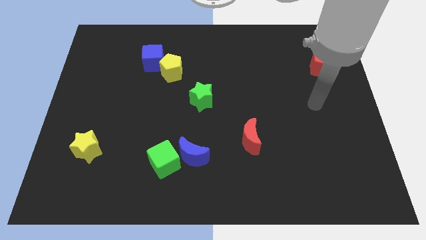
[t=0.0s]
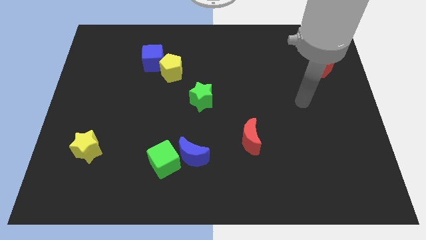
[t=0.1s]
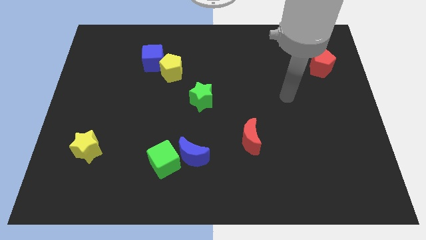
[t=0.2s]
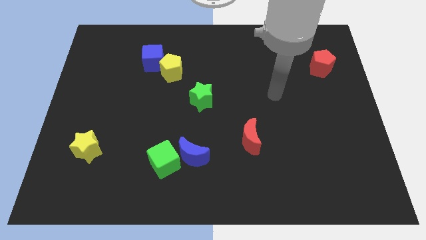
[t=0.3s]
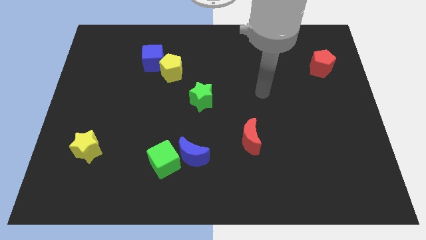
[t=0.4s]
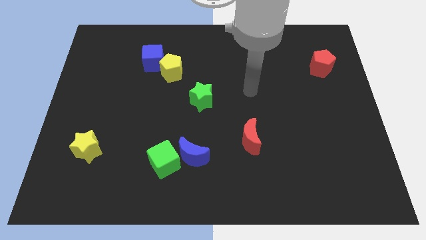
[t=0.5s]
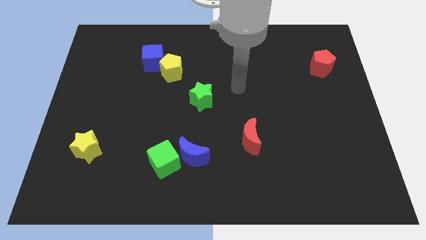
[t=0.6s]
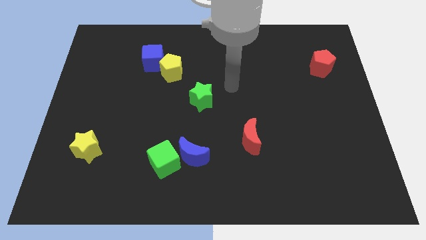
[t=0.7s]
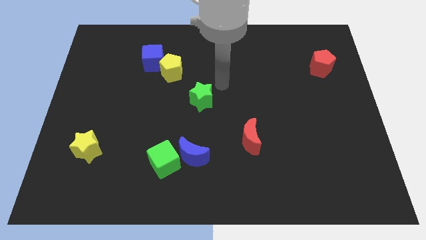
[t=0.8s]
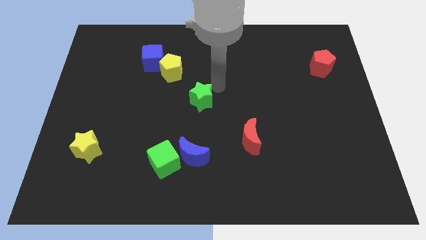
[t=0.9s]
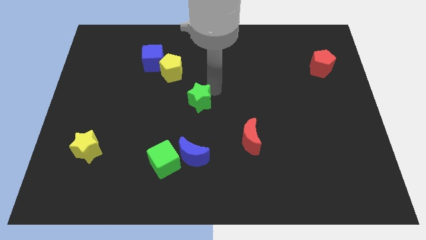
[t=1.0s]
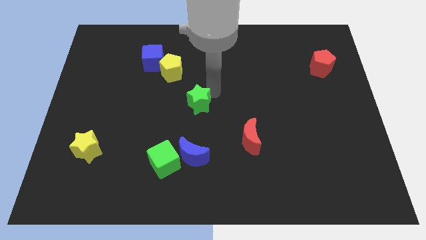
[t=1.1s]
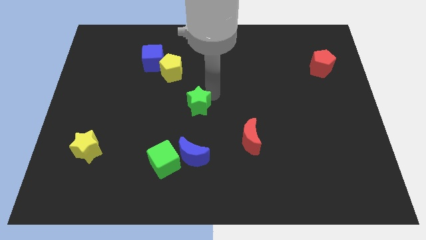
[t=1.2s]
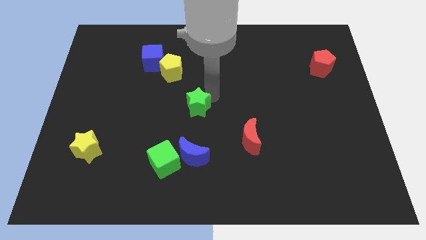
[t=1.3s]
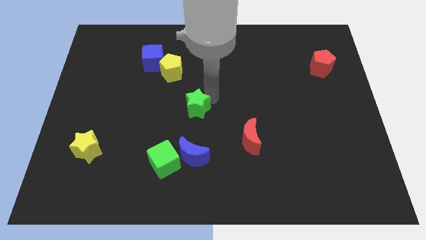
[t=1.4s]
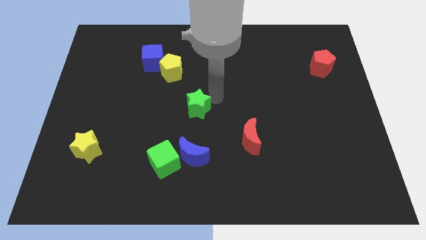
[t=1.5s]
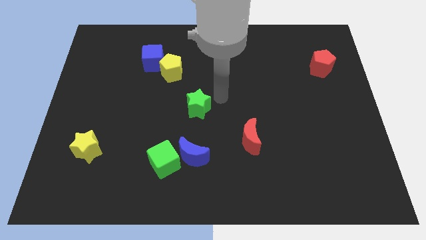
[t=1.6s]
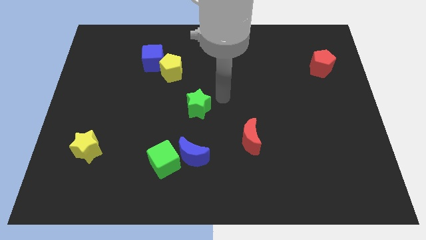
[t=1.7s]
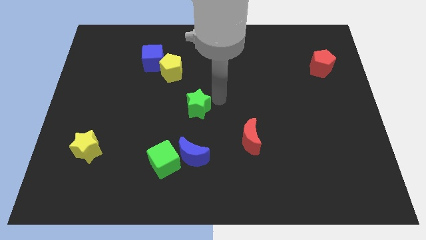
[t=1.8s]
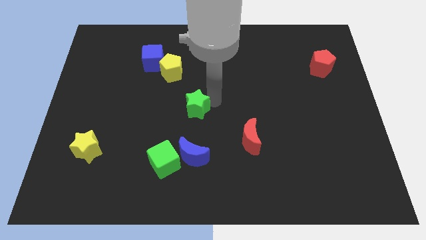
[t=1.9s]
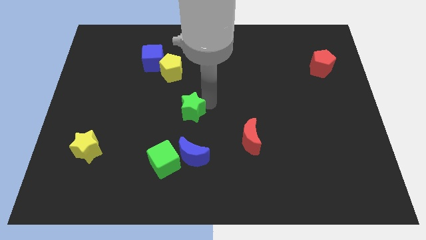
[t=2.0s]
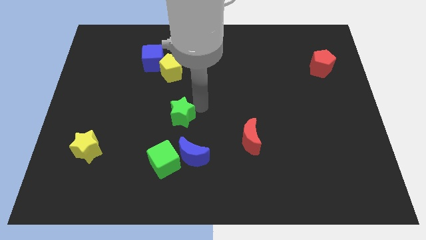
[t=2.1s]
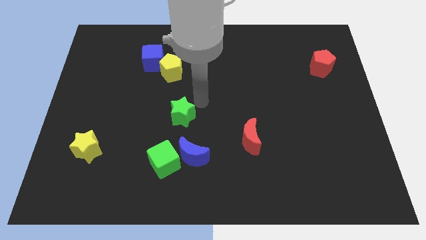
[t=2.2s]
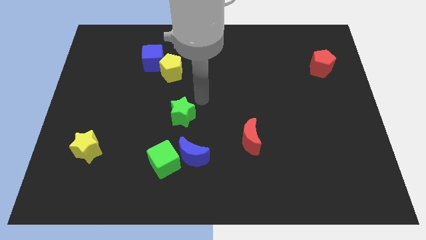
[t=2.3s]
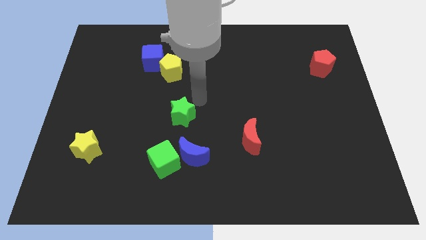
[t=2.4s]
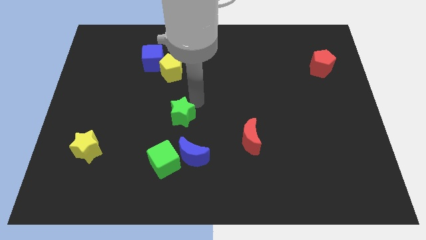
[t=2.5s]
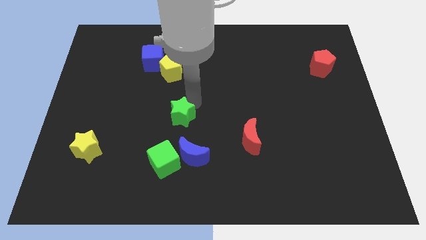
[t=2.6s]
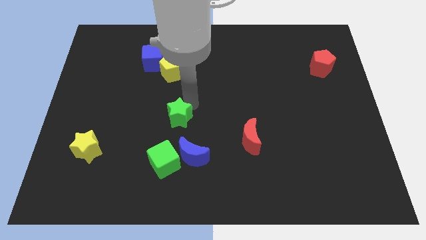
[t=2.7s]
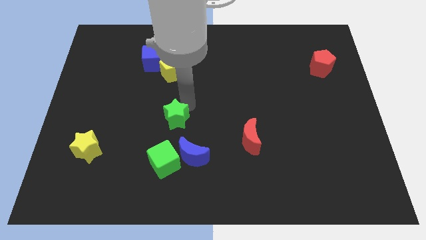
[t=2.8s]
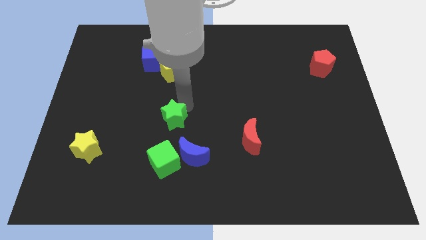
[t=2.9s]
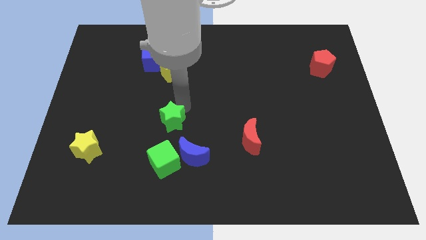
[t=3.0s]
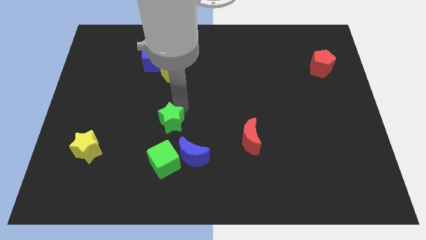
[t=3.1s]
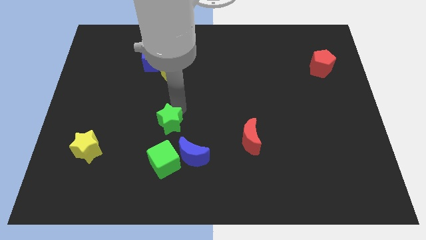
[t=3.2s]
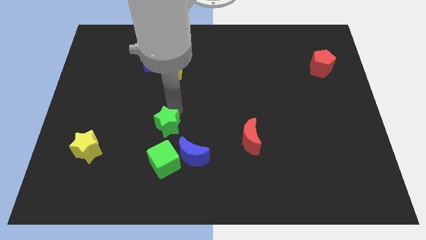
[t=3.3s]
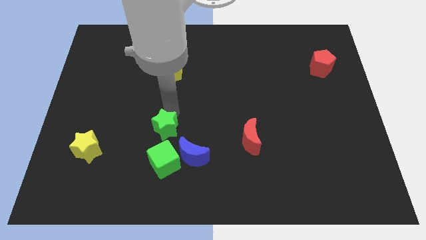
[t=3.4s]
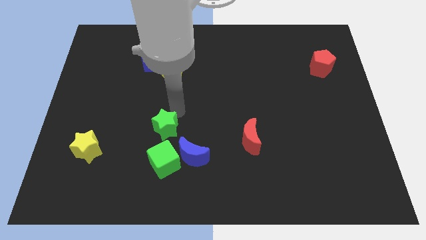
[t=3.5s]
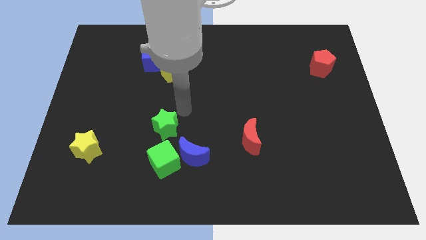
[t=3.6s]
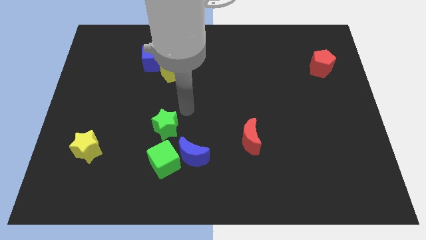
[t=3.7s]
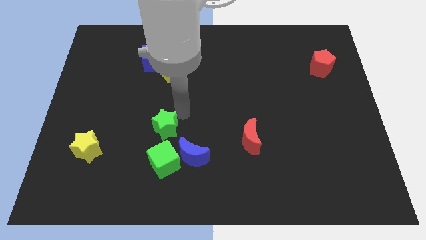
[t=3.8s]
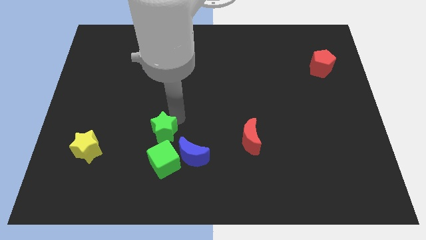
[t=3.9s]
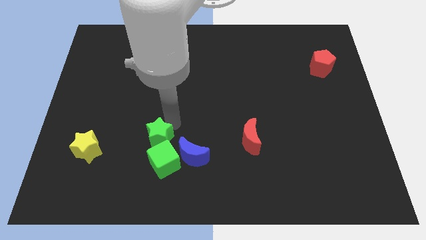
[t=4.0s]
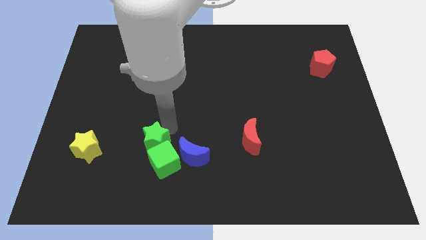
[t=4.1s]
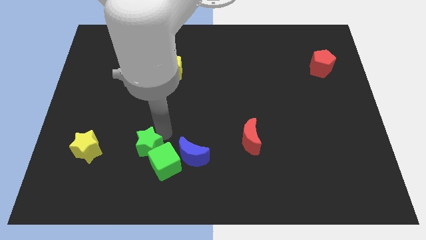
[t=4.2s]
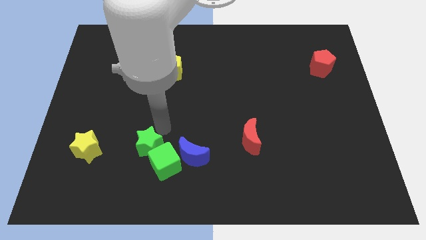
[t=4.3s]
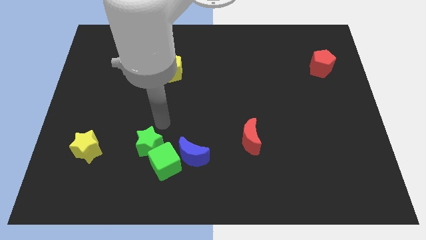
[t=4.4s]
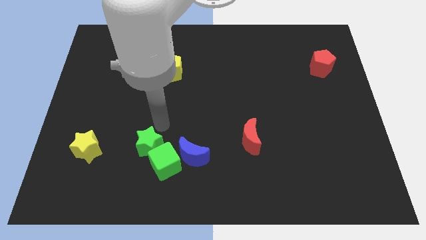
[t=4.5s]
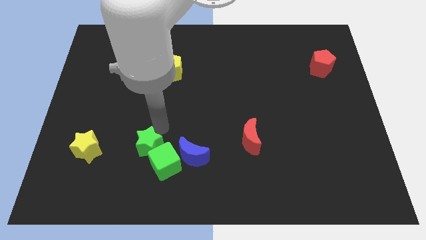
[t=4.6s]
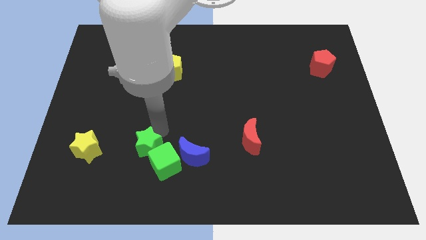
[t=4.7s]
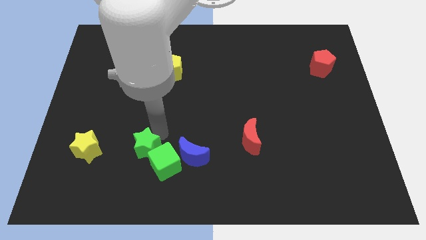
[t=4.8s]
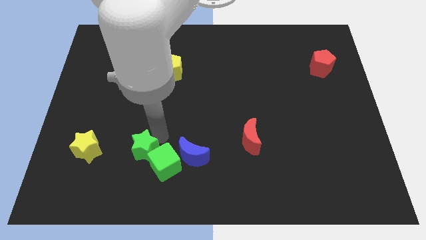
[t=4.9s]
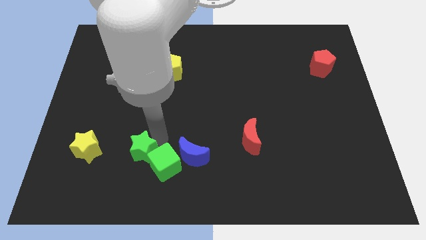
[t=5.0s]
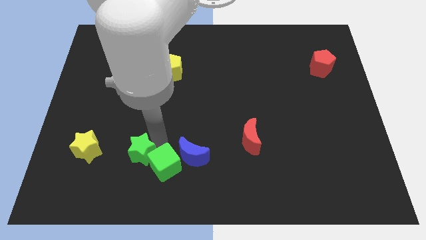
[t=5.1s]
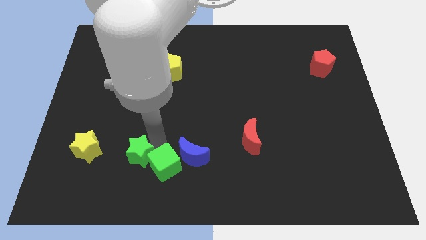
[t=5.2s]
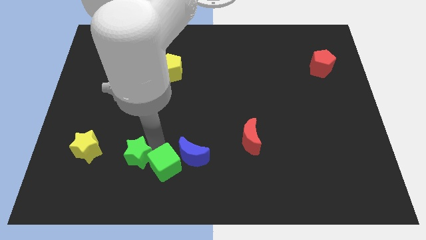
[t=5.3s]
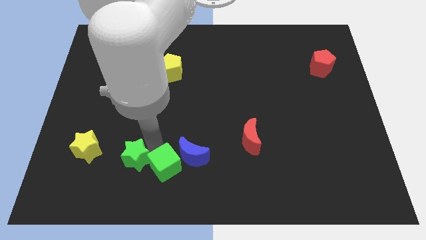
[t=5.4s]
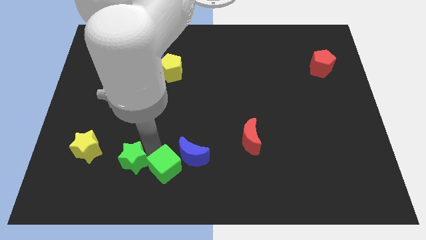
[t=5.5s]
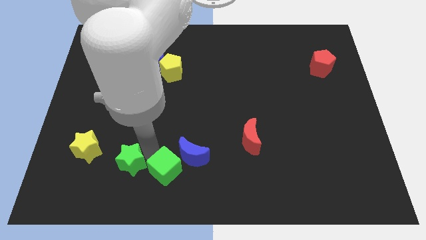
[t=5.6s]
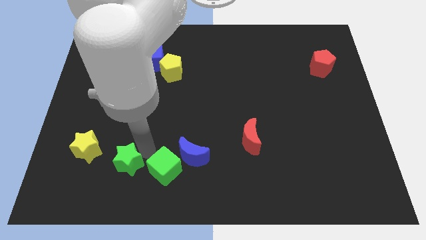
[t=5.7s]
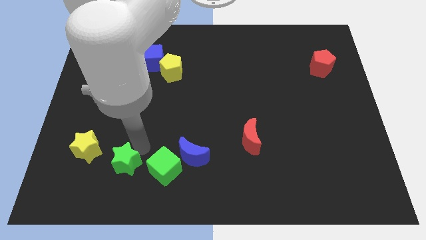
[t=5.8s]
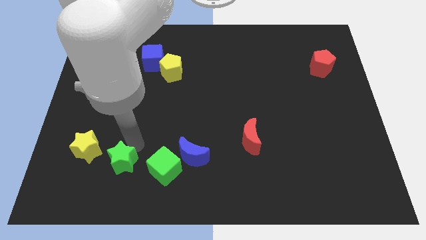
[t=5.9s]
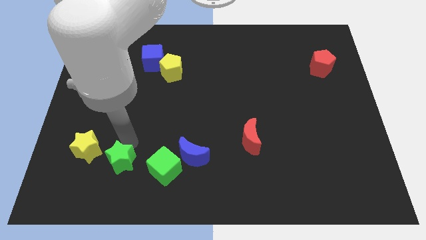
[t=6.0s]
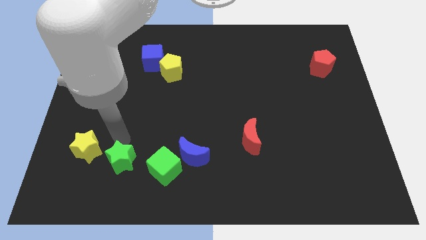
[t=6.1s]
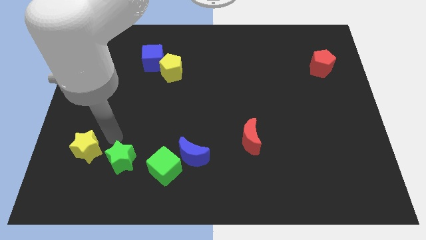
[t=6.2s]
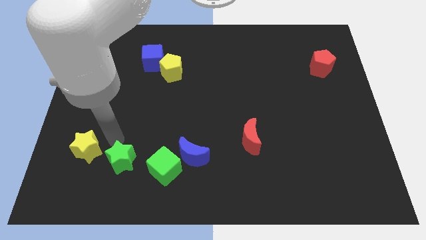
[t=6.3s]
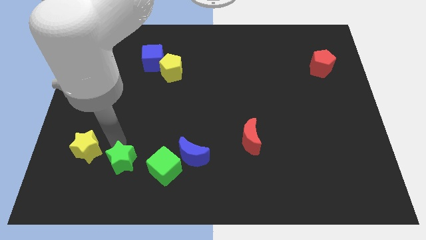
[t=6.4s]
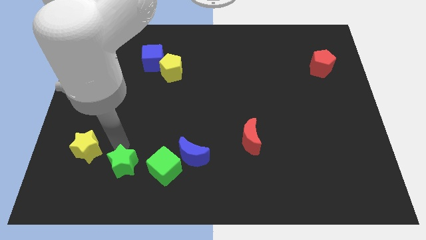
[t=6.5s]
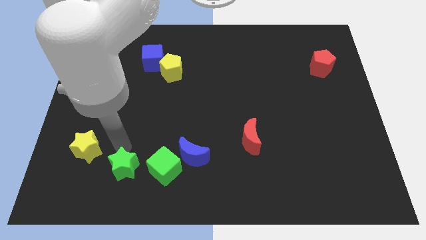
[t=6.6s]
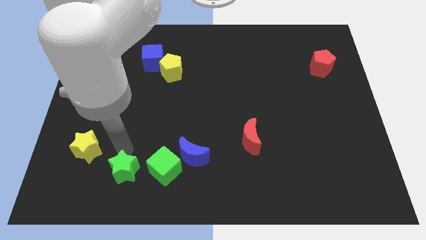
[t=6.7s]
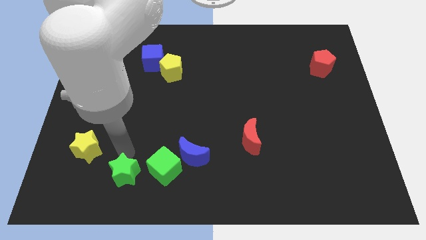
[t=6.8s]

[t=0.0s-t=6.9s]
push the green star diagonally down and to the left of the green cube
